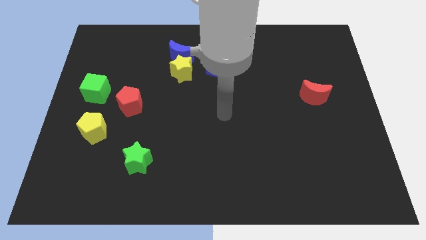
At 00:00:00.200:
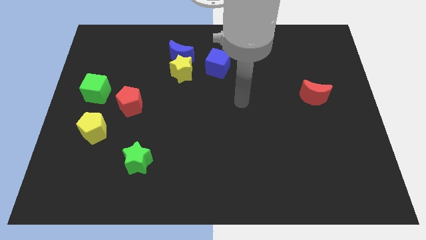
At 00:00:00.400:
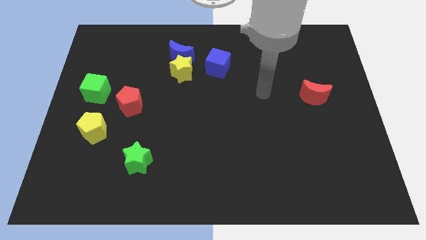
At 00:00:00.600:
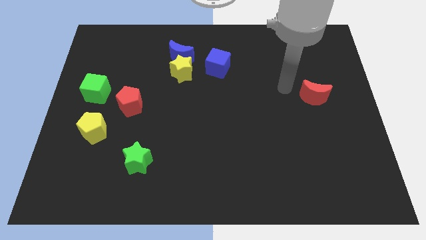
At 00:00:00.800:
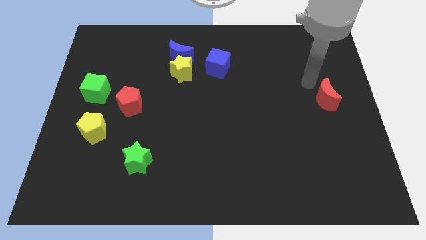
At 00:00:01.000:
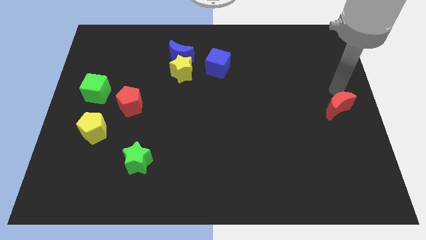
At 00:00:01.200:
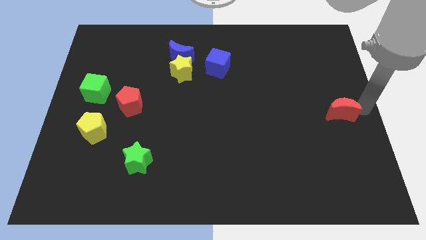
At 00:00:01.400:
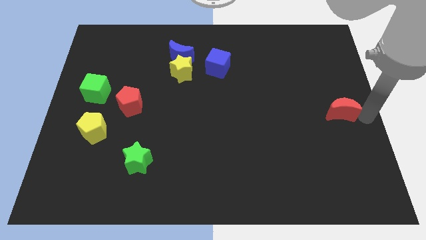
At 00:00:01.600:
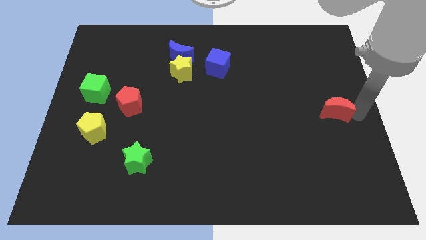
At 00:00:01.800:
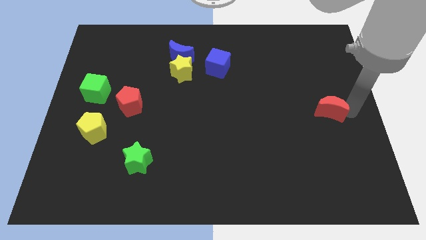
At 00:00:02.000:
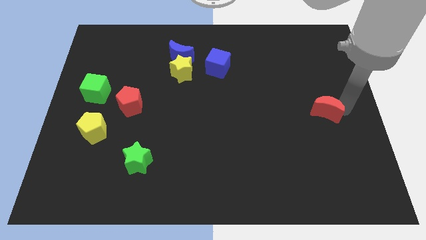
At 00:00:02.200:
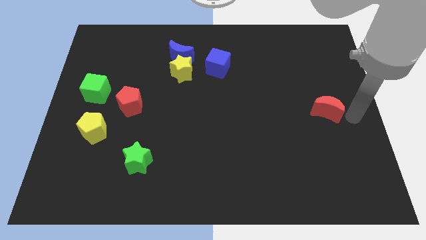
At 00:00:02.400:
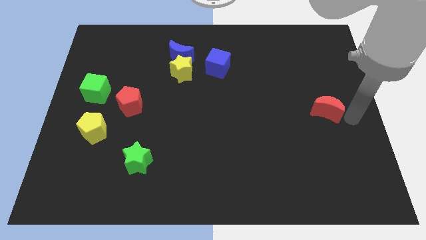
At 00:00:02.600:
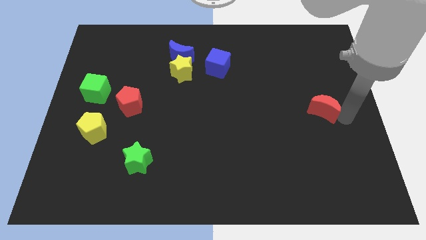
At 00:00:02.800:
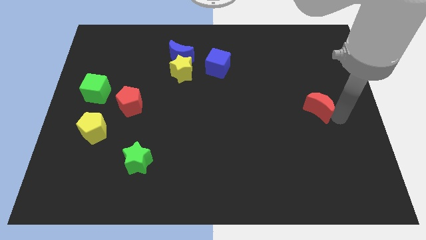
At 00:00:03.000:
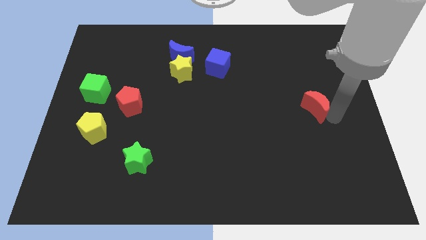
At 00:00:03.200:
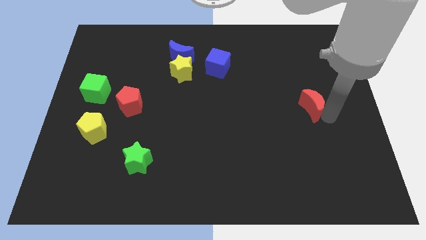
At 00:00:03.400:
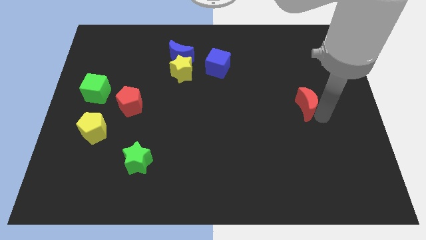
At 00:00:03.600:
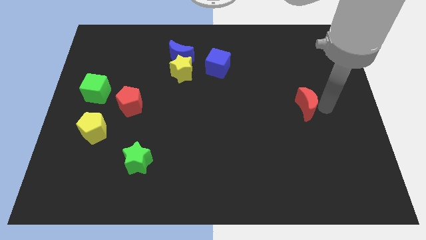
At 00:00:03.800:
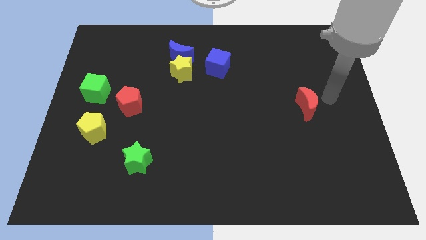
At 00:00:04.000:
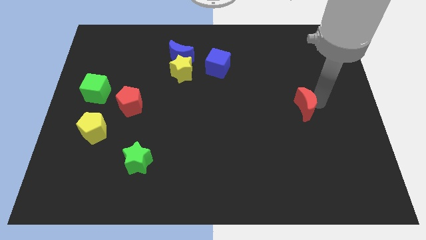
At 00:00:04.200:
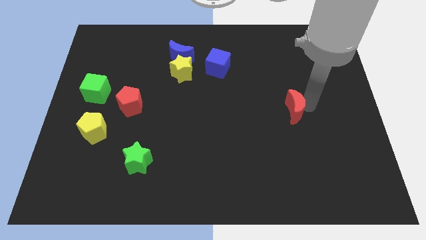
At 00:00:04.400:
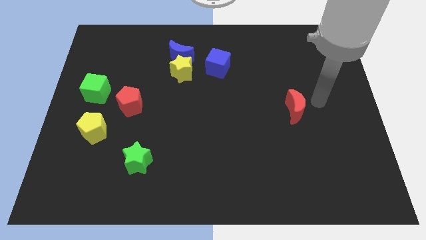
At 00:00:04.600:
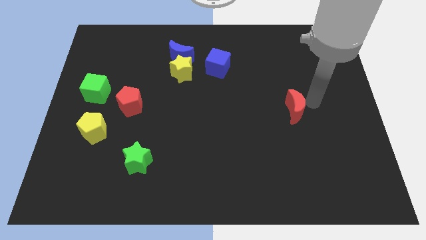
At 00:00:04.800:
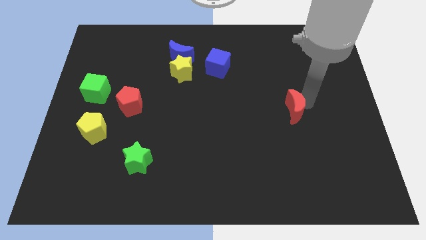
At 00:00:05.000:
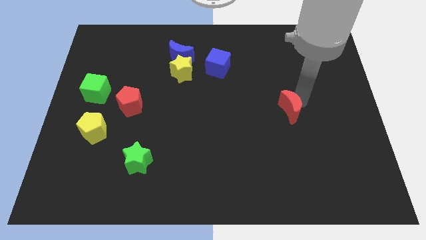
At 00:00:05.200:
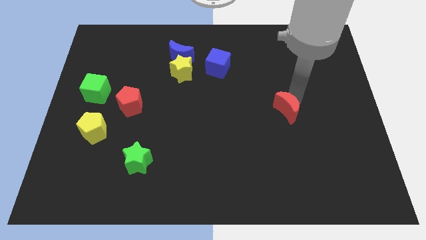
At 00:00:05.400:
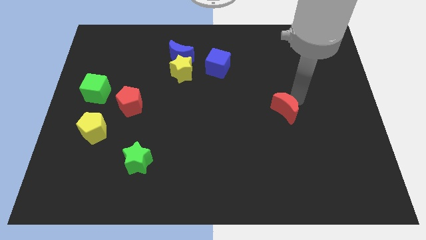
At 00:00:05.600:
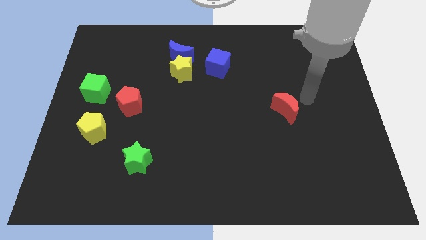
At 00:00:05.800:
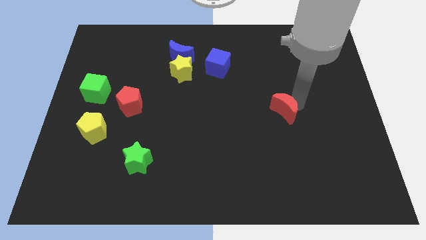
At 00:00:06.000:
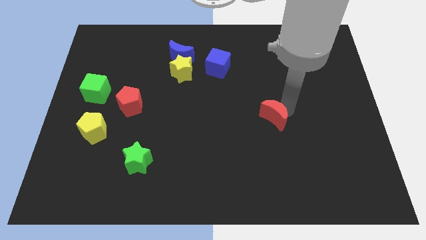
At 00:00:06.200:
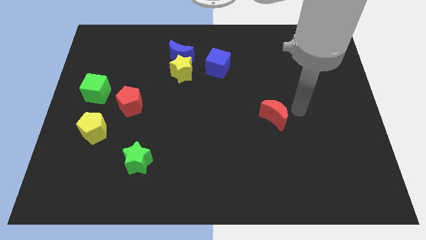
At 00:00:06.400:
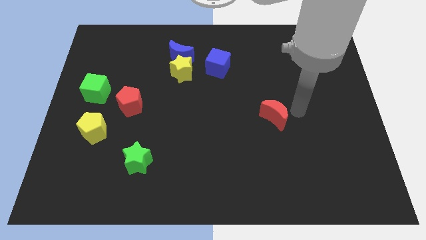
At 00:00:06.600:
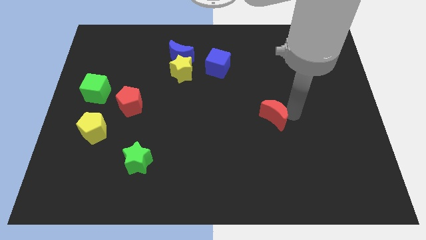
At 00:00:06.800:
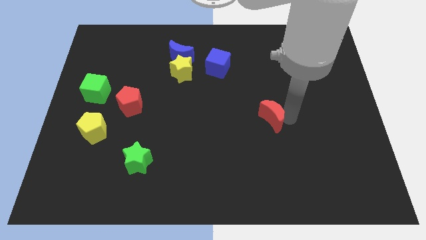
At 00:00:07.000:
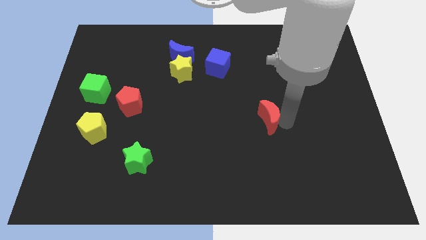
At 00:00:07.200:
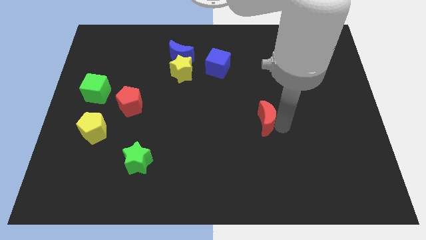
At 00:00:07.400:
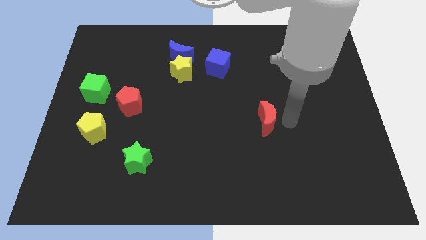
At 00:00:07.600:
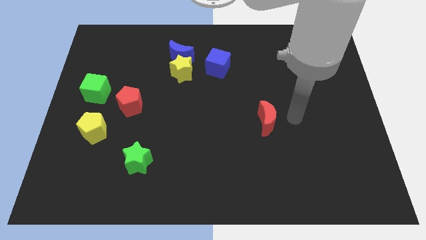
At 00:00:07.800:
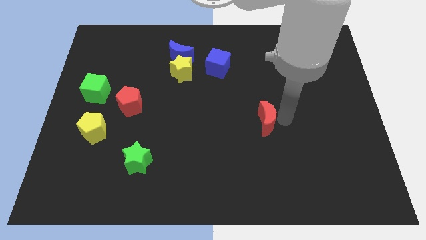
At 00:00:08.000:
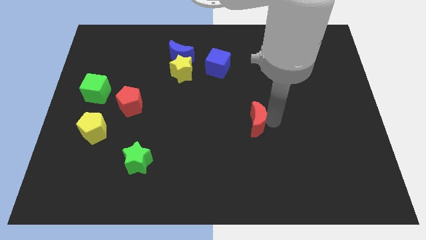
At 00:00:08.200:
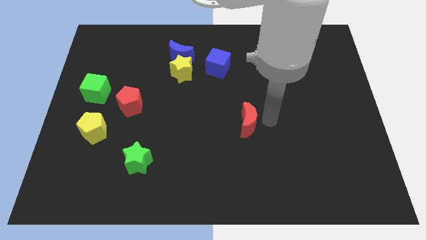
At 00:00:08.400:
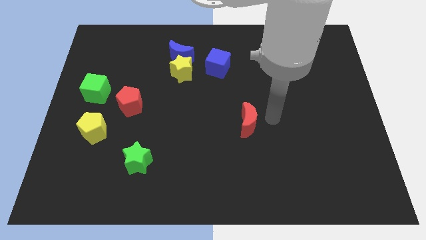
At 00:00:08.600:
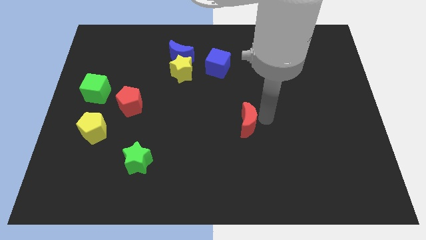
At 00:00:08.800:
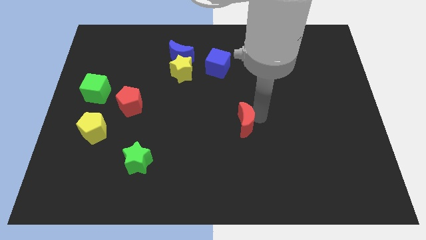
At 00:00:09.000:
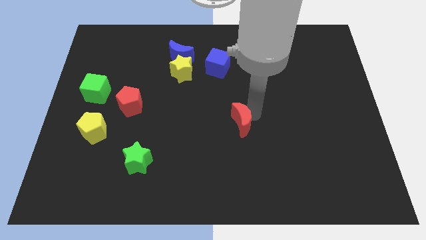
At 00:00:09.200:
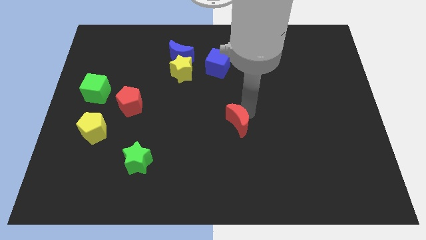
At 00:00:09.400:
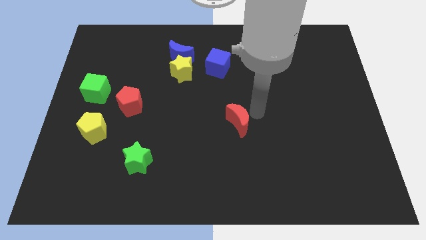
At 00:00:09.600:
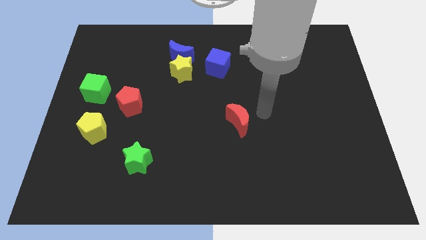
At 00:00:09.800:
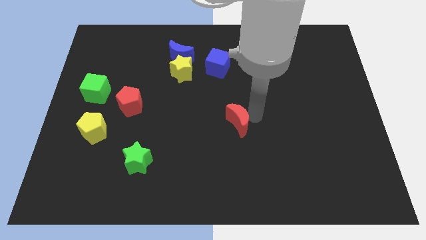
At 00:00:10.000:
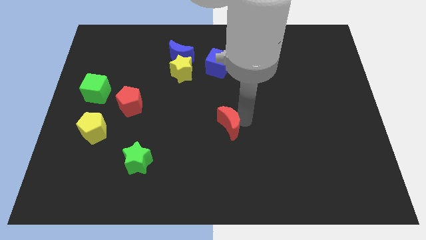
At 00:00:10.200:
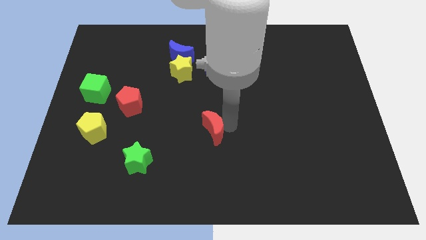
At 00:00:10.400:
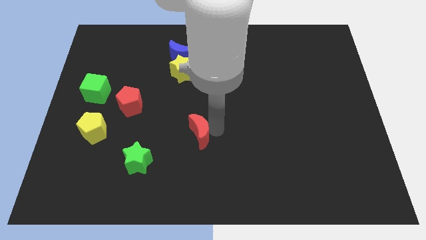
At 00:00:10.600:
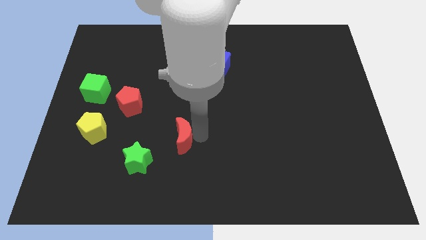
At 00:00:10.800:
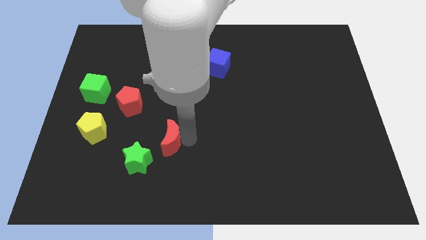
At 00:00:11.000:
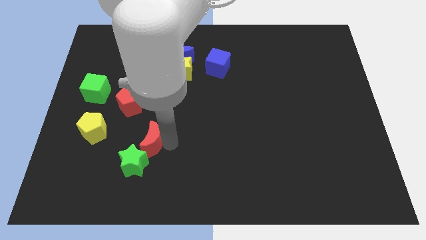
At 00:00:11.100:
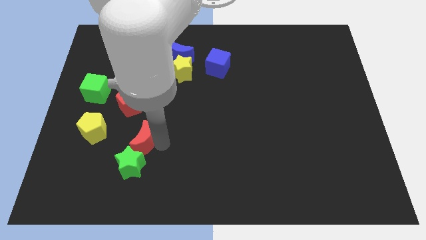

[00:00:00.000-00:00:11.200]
slide the red moon below the red pentagon

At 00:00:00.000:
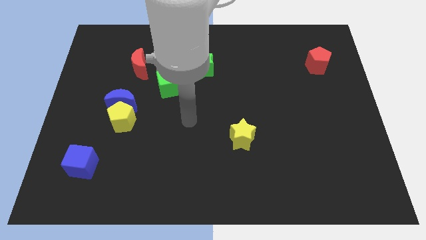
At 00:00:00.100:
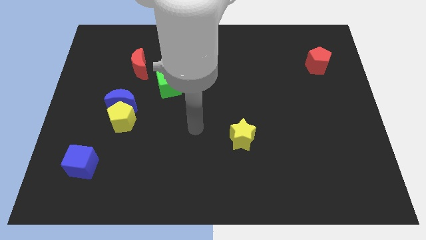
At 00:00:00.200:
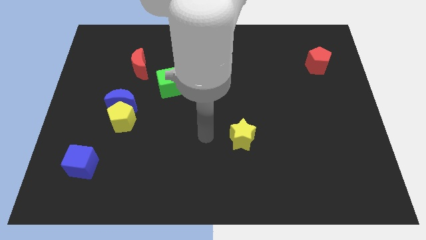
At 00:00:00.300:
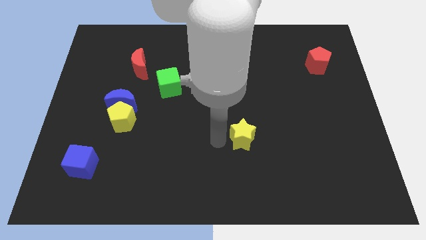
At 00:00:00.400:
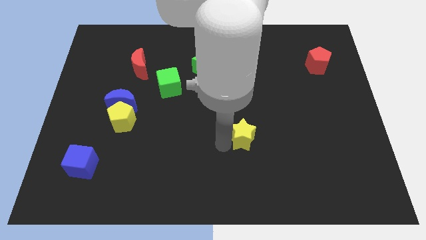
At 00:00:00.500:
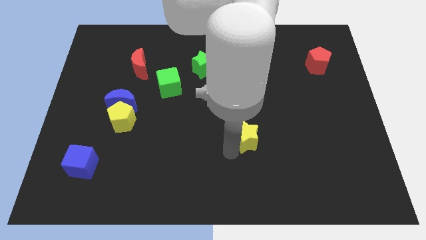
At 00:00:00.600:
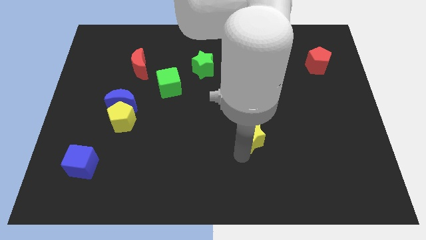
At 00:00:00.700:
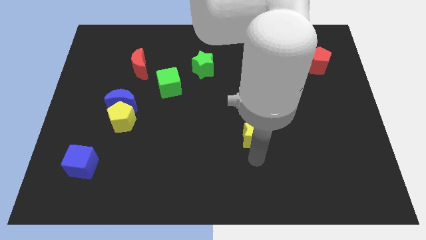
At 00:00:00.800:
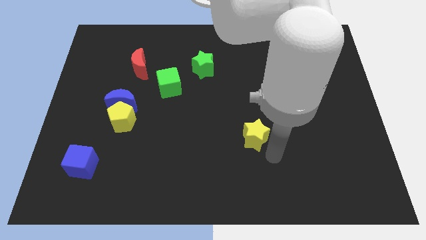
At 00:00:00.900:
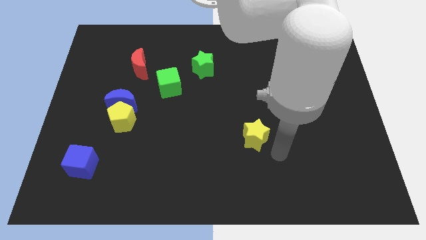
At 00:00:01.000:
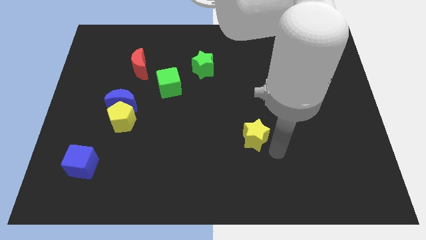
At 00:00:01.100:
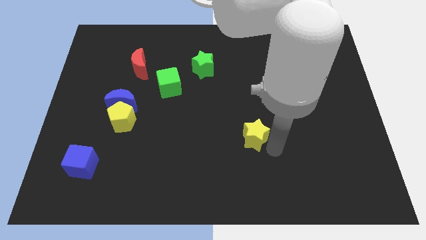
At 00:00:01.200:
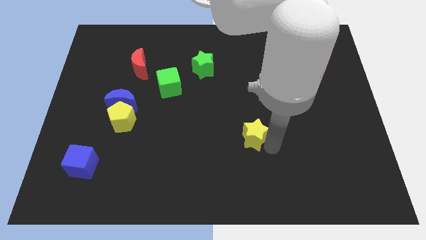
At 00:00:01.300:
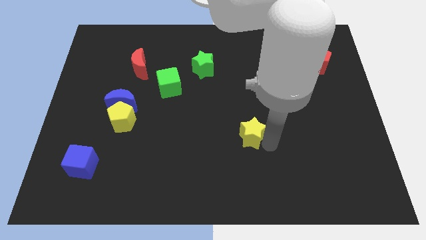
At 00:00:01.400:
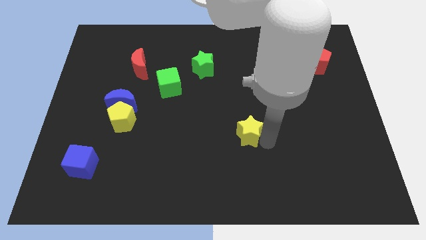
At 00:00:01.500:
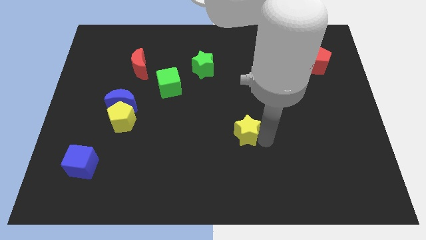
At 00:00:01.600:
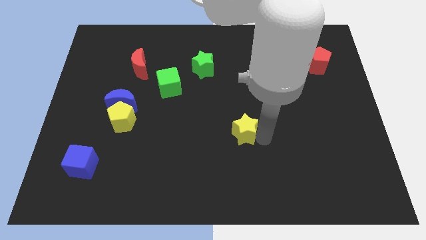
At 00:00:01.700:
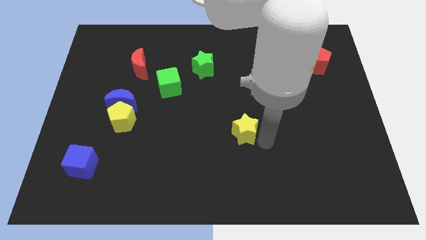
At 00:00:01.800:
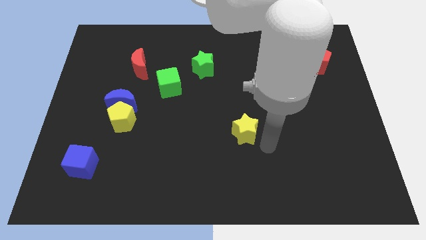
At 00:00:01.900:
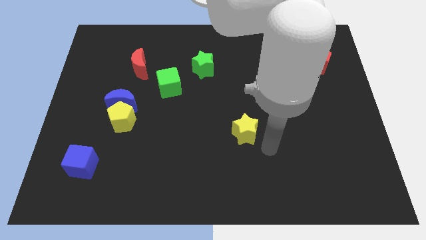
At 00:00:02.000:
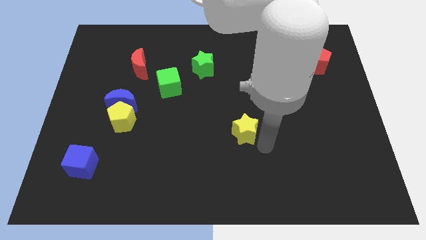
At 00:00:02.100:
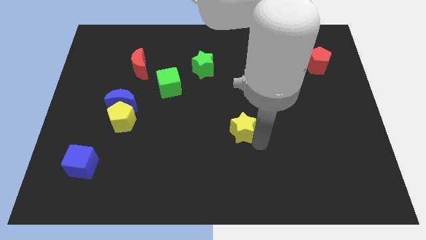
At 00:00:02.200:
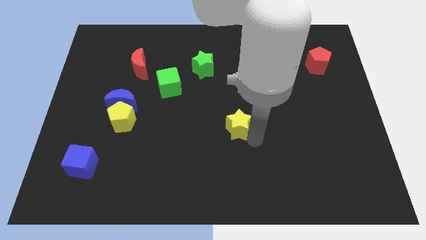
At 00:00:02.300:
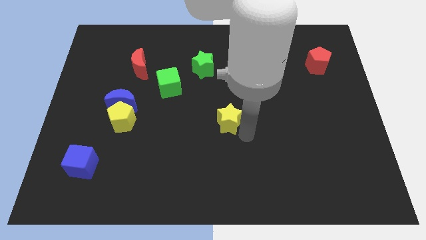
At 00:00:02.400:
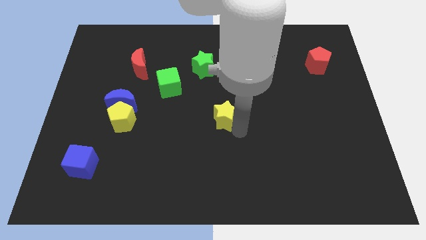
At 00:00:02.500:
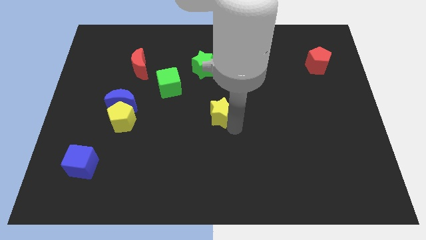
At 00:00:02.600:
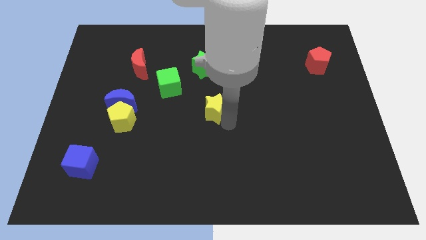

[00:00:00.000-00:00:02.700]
put the yellow star to the bottom side of the green star
